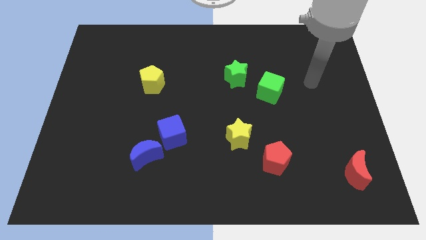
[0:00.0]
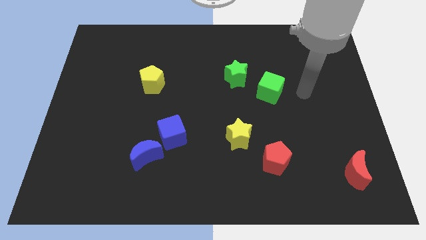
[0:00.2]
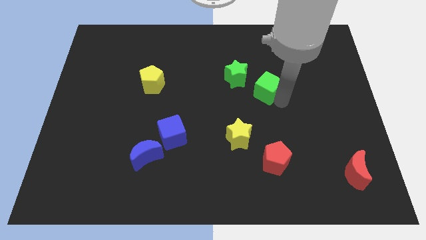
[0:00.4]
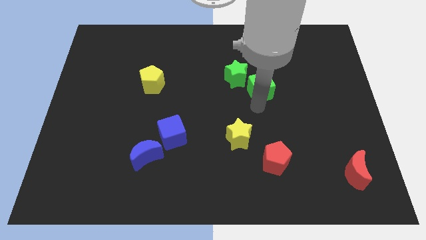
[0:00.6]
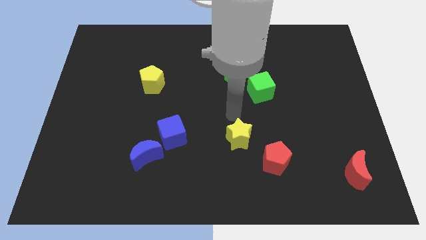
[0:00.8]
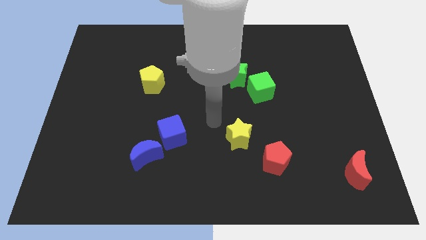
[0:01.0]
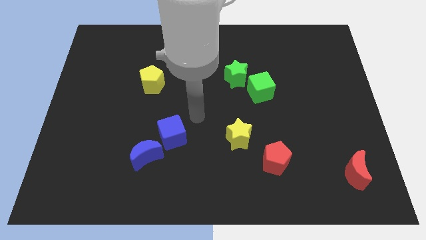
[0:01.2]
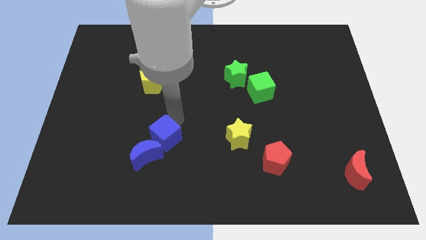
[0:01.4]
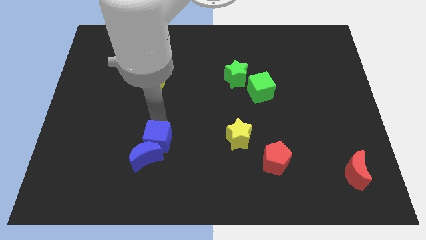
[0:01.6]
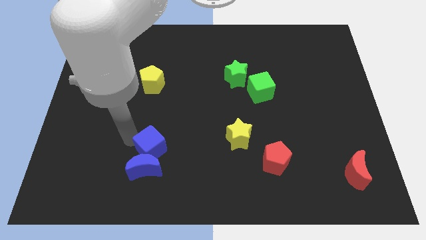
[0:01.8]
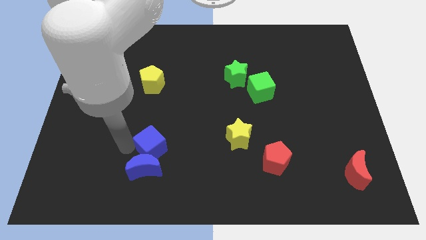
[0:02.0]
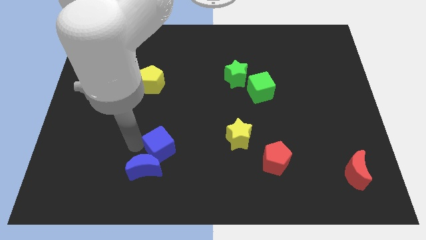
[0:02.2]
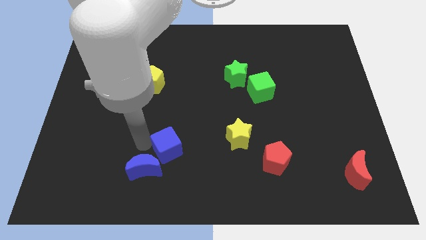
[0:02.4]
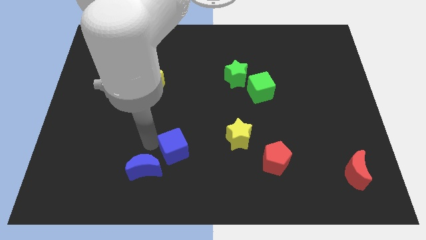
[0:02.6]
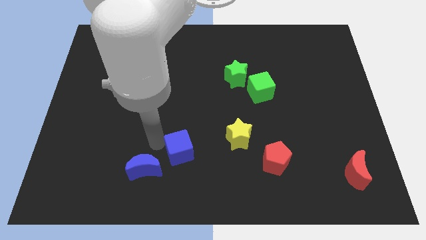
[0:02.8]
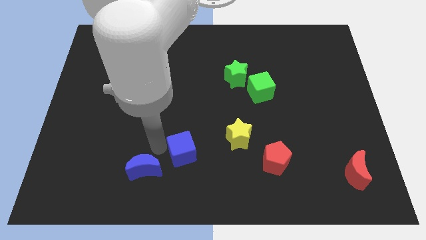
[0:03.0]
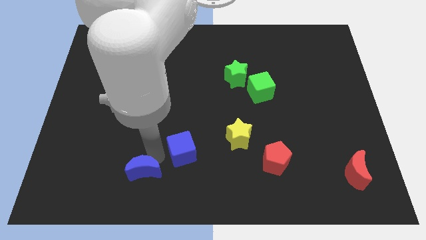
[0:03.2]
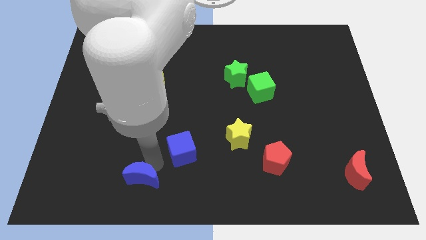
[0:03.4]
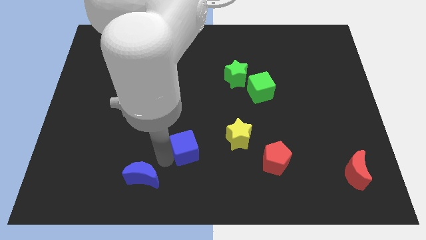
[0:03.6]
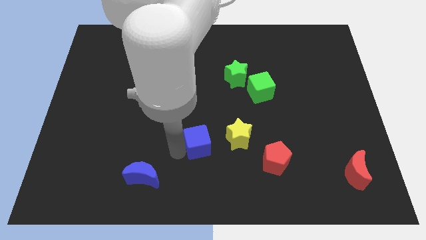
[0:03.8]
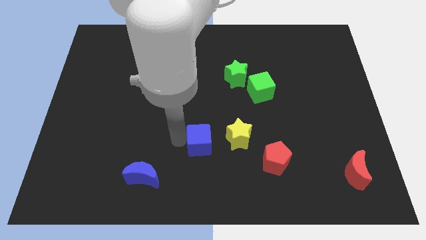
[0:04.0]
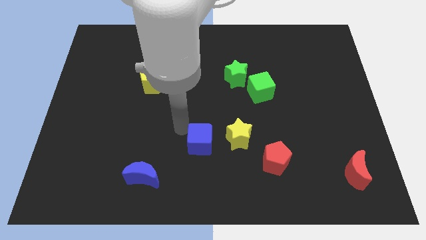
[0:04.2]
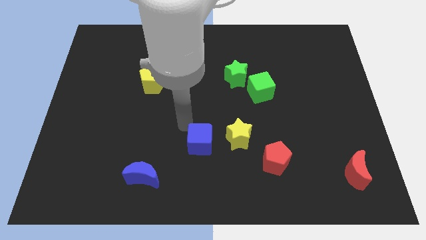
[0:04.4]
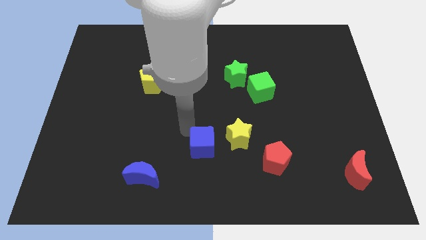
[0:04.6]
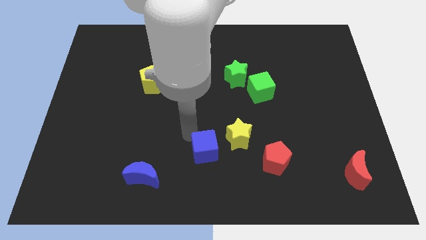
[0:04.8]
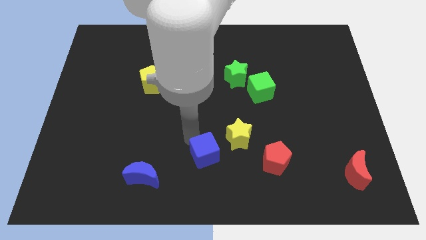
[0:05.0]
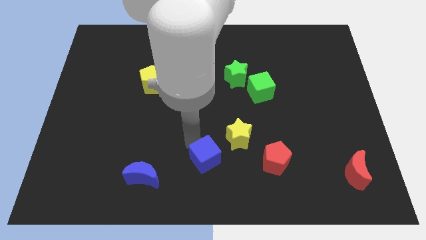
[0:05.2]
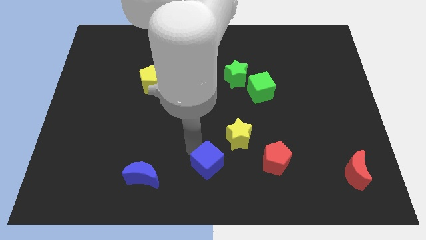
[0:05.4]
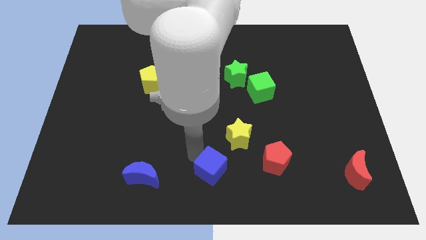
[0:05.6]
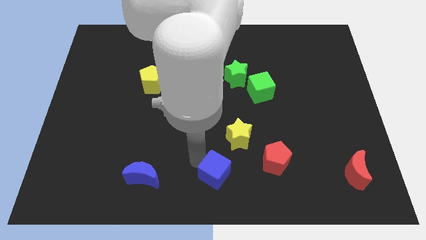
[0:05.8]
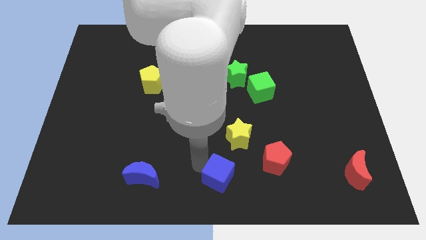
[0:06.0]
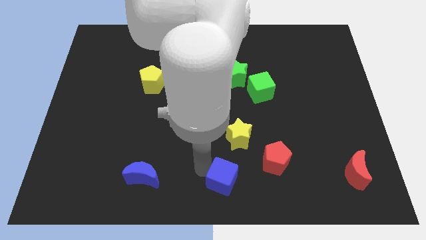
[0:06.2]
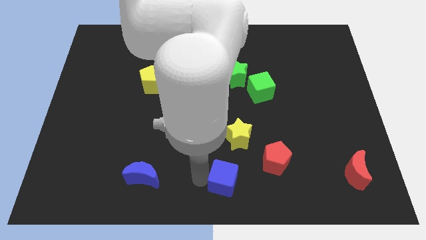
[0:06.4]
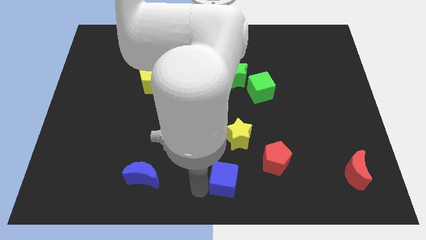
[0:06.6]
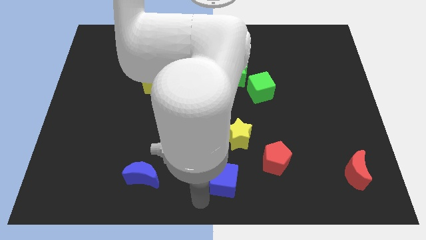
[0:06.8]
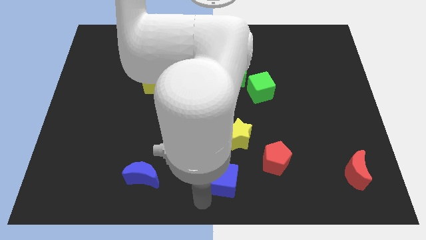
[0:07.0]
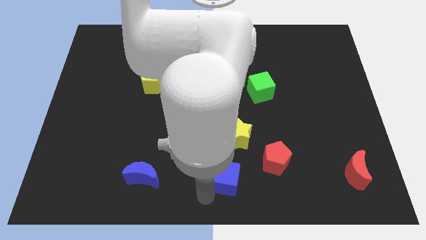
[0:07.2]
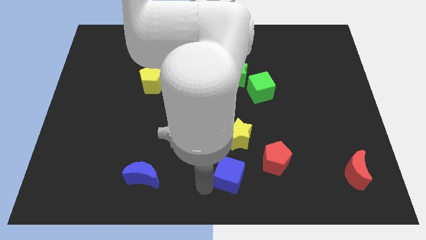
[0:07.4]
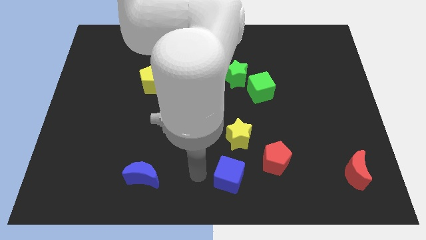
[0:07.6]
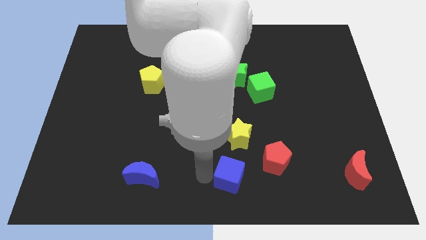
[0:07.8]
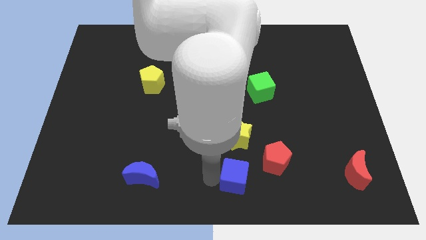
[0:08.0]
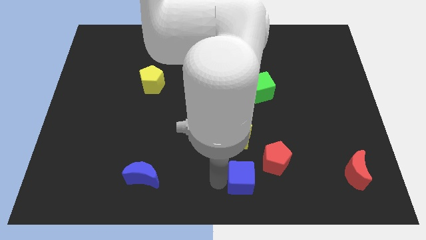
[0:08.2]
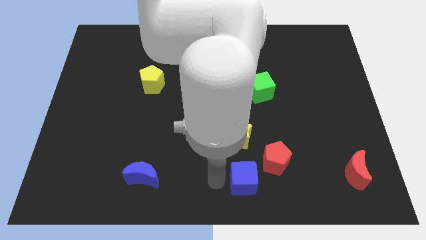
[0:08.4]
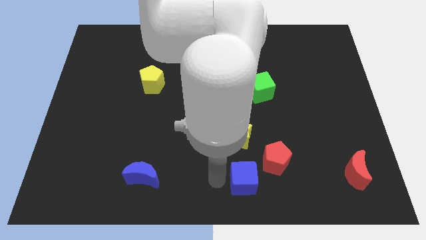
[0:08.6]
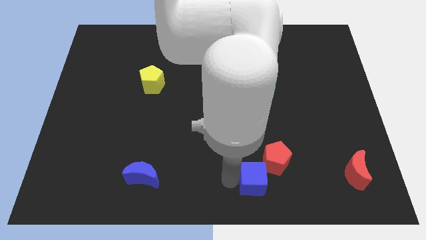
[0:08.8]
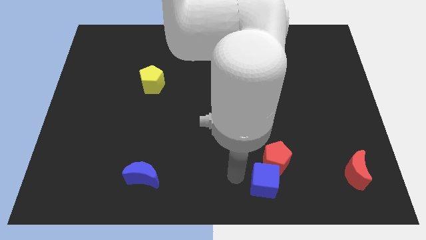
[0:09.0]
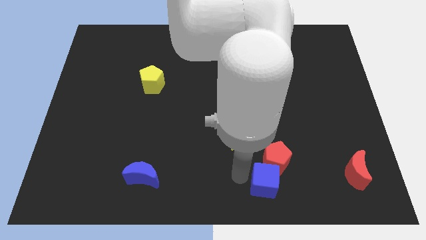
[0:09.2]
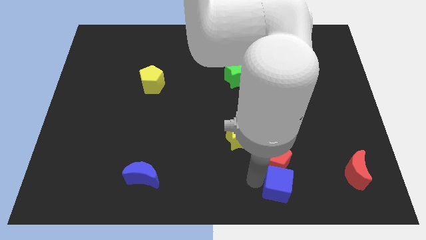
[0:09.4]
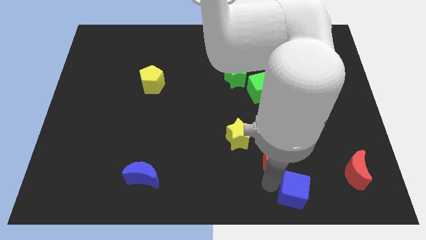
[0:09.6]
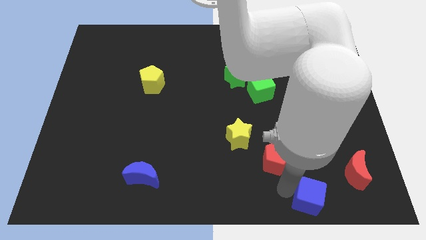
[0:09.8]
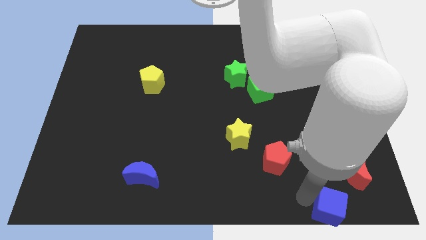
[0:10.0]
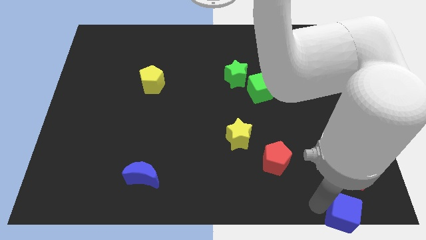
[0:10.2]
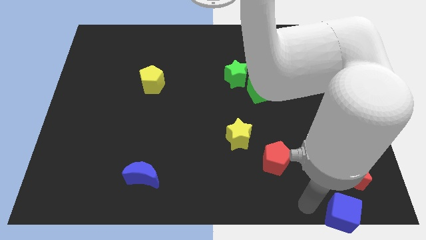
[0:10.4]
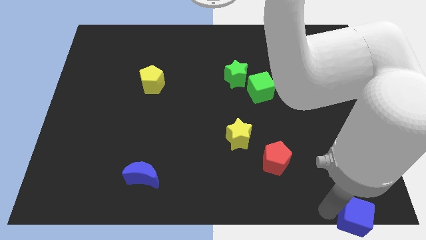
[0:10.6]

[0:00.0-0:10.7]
slide the blue cube to the bottom right

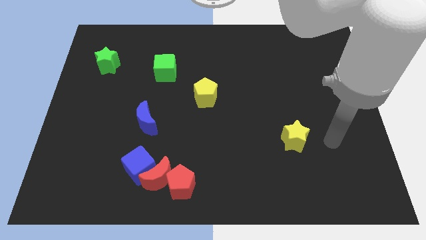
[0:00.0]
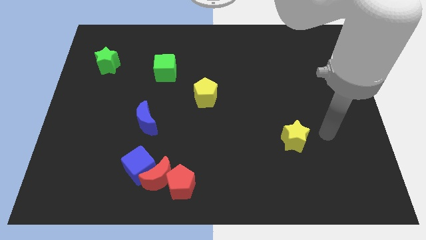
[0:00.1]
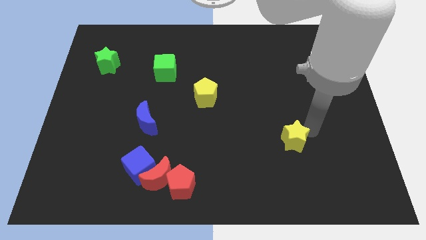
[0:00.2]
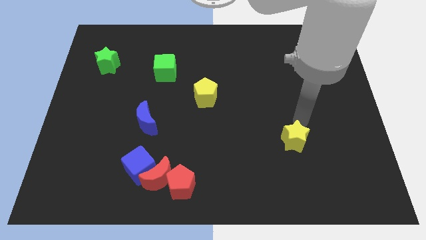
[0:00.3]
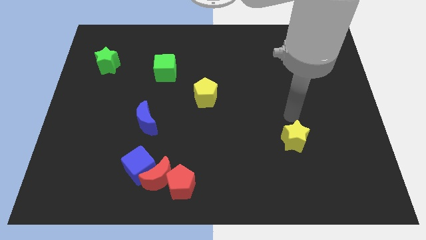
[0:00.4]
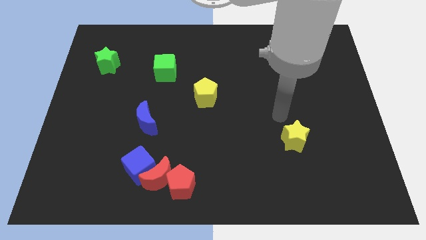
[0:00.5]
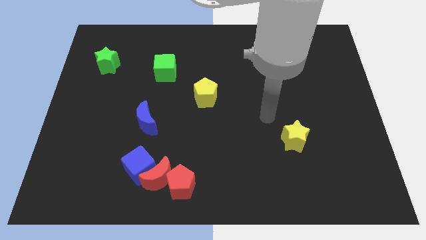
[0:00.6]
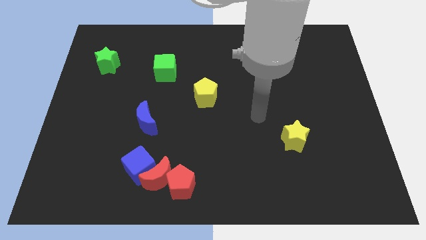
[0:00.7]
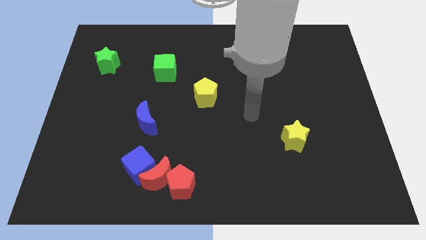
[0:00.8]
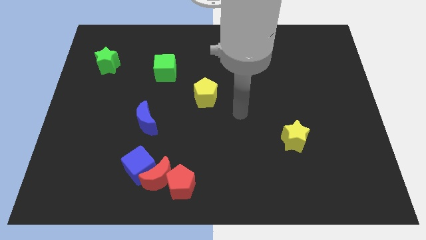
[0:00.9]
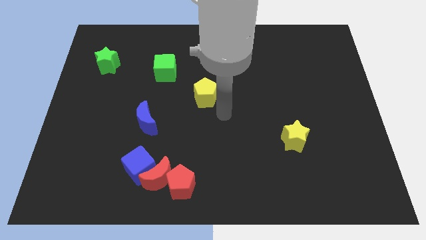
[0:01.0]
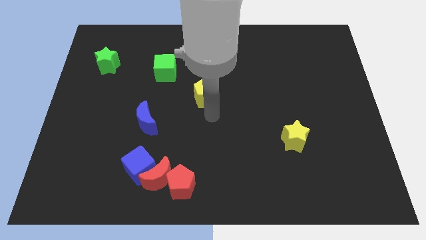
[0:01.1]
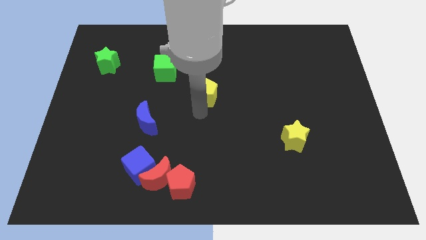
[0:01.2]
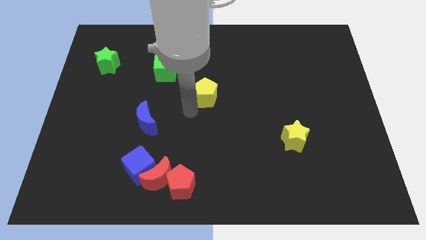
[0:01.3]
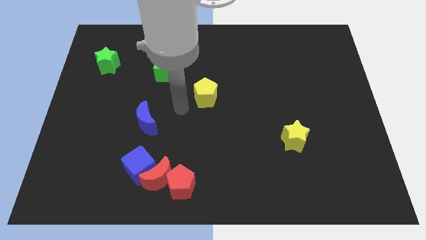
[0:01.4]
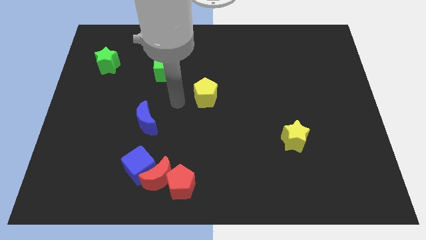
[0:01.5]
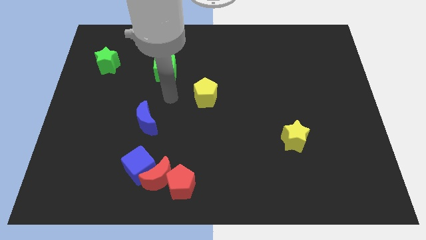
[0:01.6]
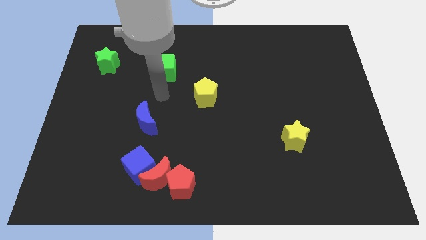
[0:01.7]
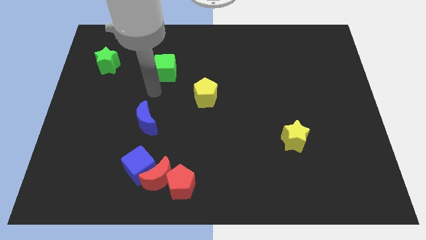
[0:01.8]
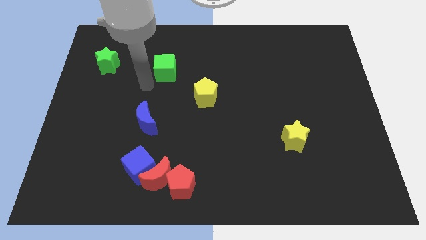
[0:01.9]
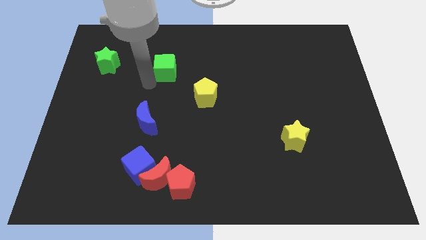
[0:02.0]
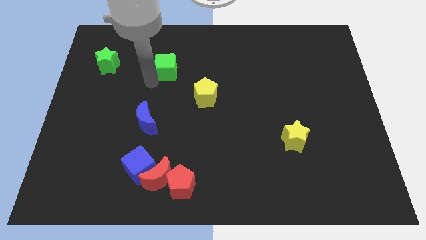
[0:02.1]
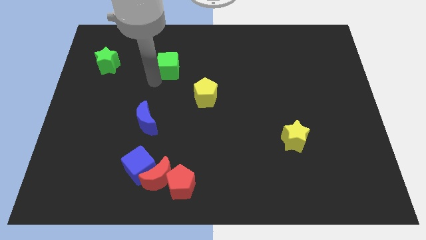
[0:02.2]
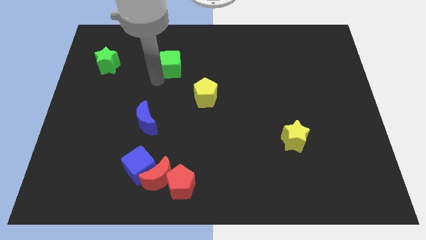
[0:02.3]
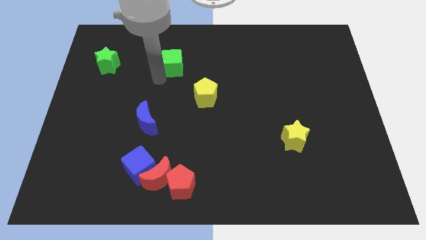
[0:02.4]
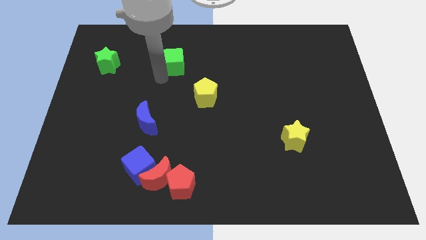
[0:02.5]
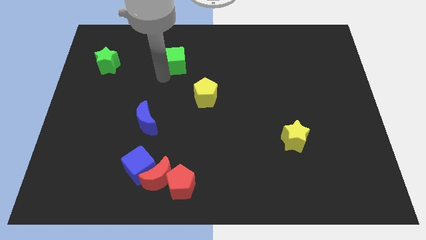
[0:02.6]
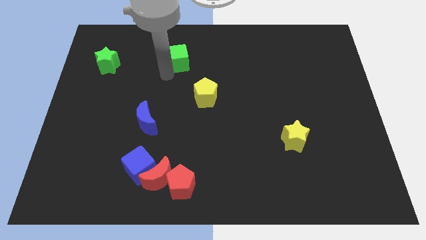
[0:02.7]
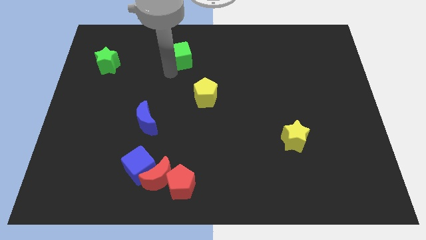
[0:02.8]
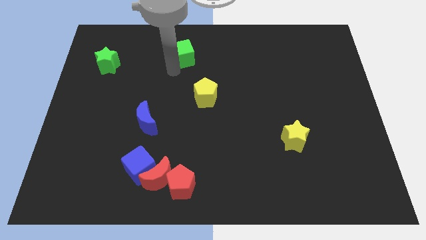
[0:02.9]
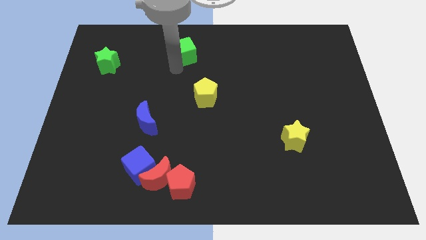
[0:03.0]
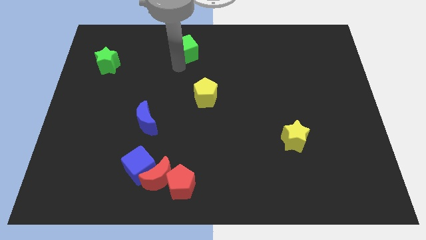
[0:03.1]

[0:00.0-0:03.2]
move the green cube to the top side
